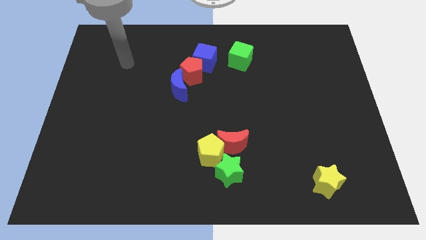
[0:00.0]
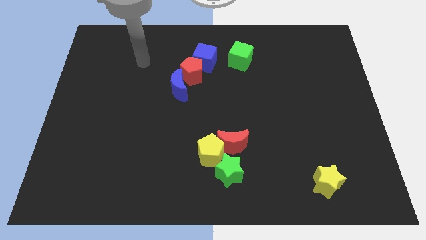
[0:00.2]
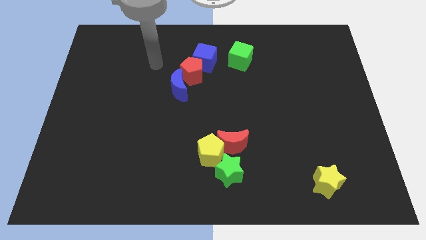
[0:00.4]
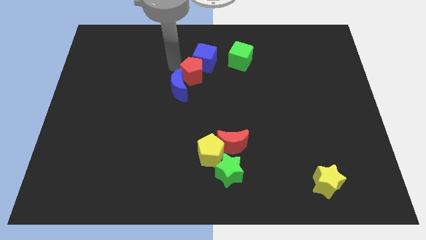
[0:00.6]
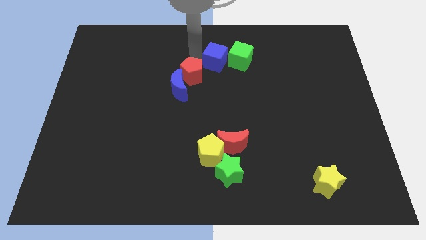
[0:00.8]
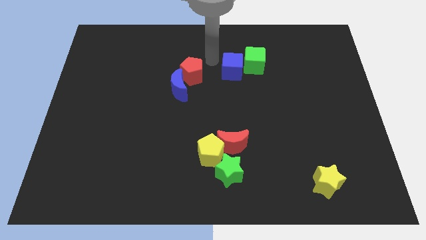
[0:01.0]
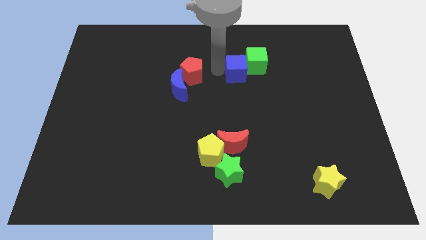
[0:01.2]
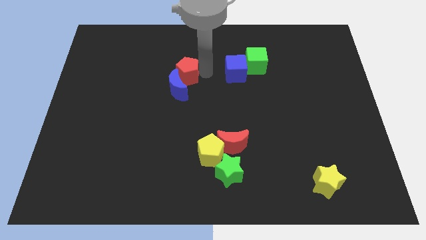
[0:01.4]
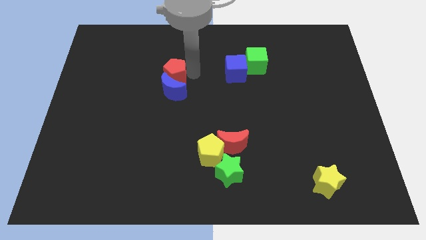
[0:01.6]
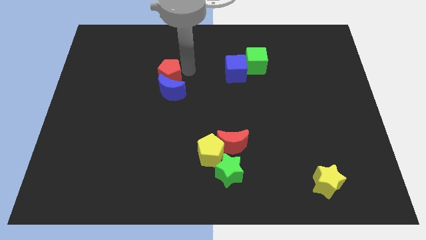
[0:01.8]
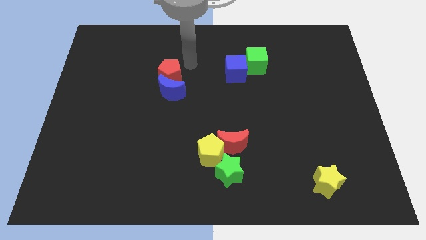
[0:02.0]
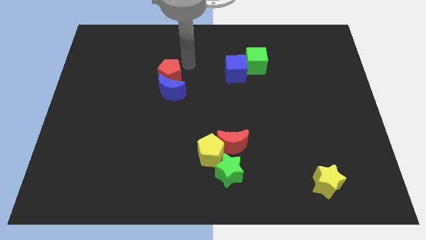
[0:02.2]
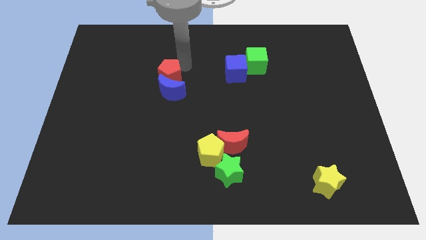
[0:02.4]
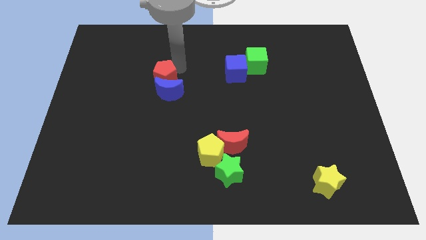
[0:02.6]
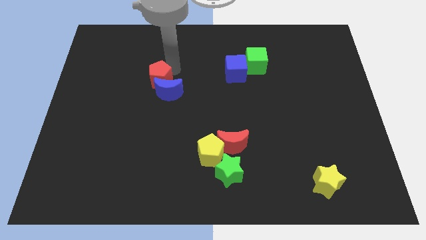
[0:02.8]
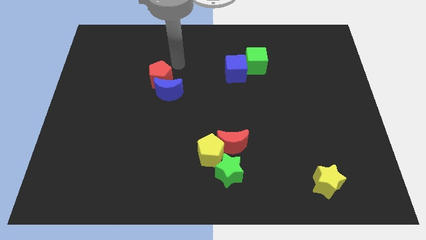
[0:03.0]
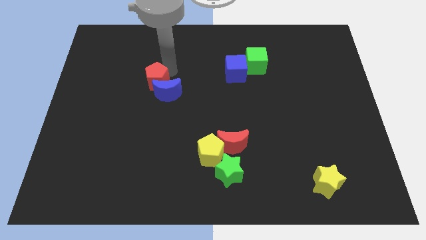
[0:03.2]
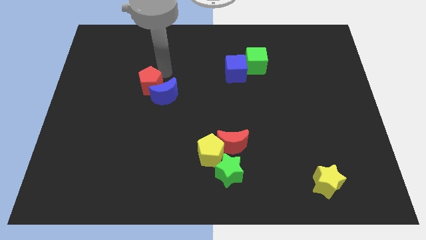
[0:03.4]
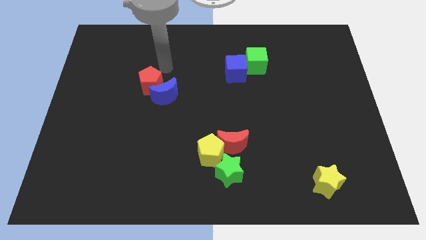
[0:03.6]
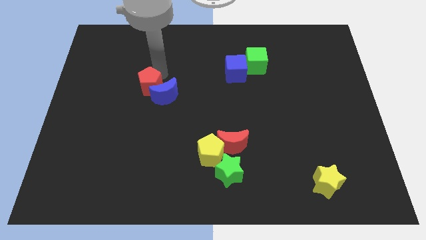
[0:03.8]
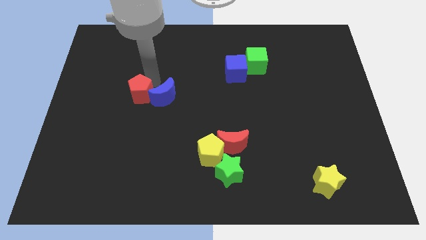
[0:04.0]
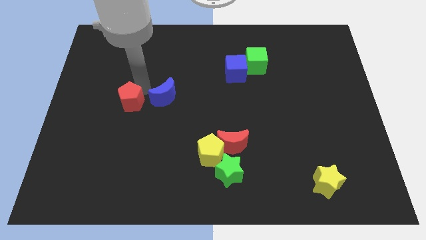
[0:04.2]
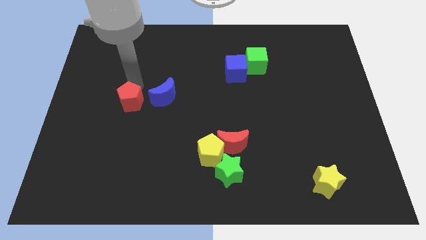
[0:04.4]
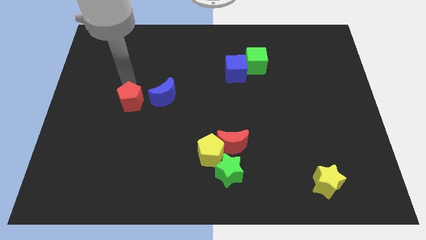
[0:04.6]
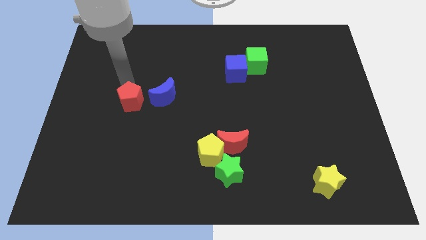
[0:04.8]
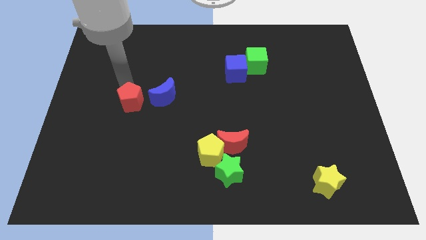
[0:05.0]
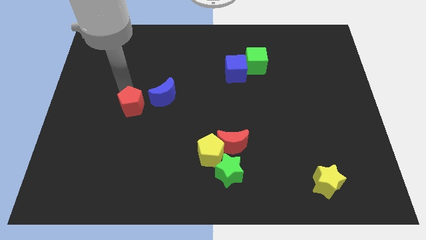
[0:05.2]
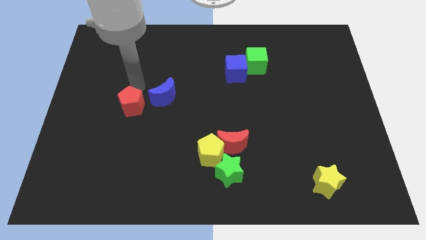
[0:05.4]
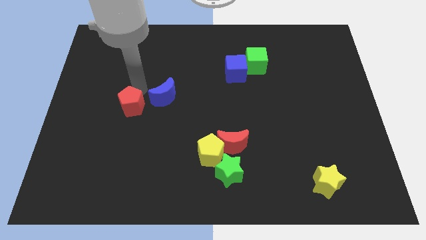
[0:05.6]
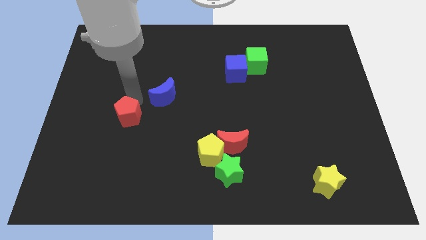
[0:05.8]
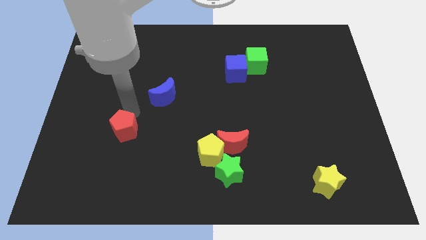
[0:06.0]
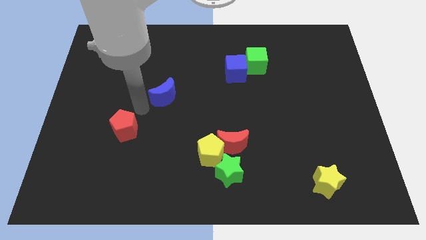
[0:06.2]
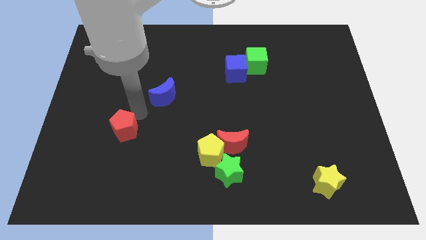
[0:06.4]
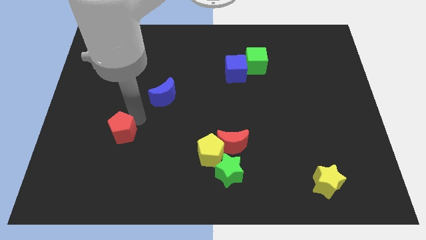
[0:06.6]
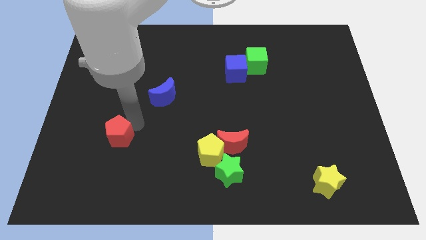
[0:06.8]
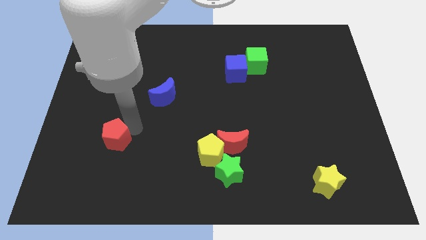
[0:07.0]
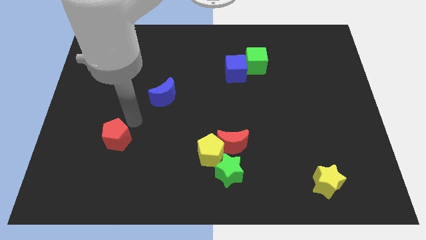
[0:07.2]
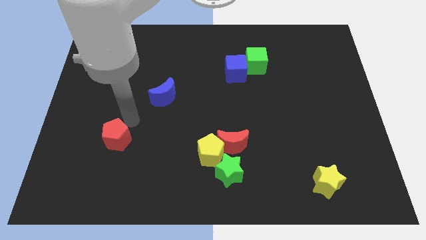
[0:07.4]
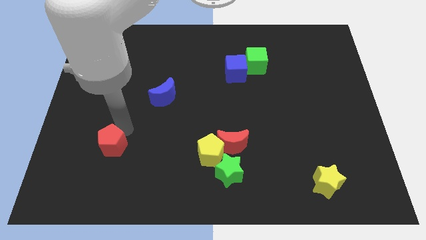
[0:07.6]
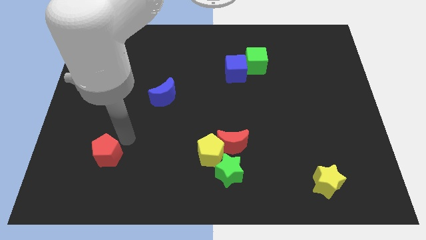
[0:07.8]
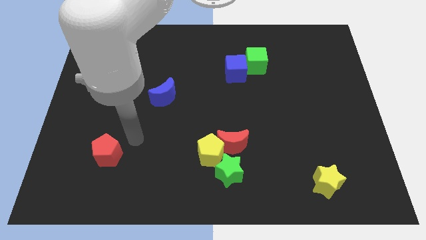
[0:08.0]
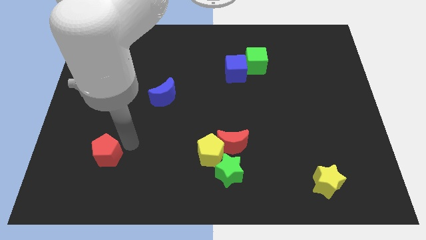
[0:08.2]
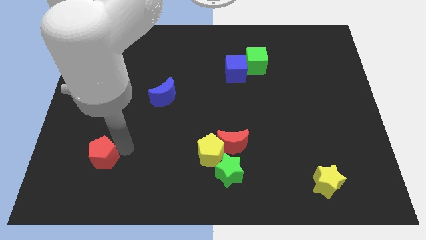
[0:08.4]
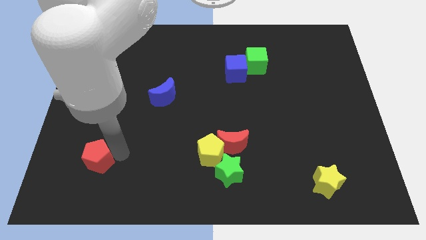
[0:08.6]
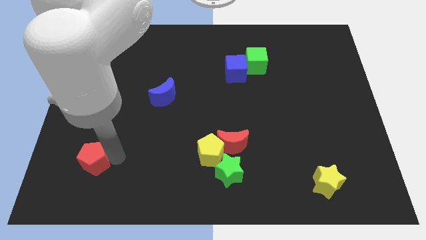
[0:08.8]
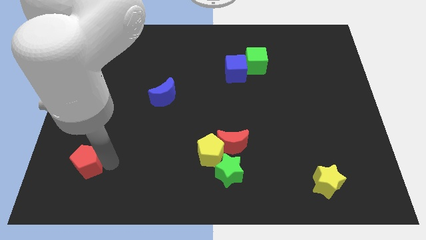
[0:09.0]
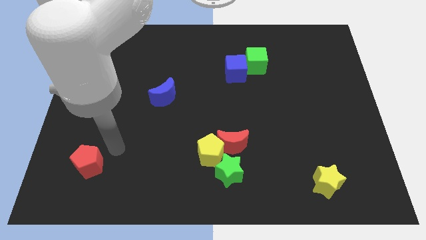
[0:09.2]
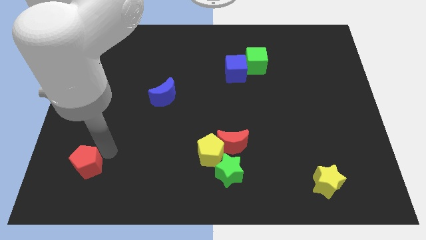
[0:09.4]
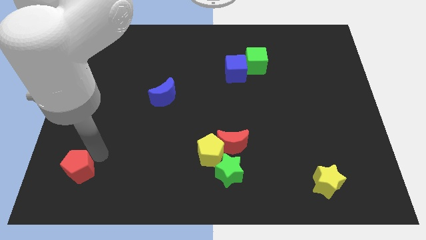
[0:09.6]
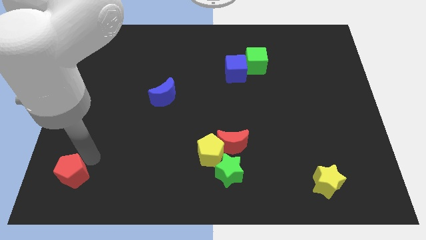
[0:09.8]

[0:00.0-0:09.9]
push the red pentagon to the bottom left of the board

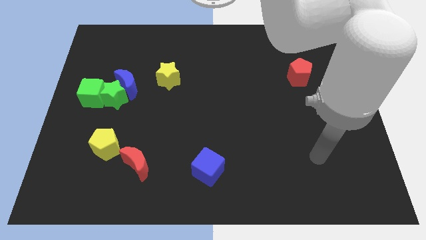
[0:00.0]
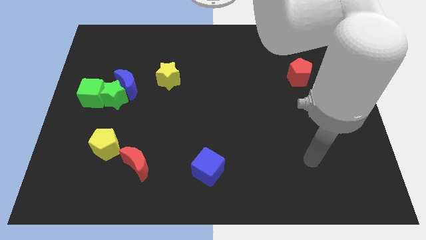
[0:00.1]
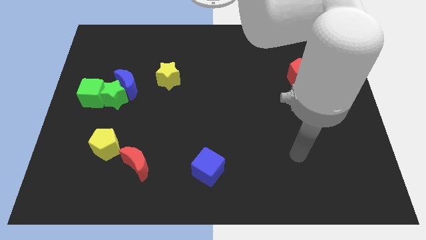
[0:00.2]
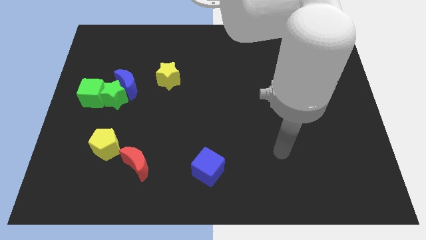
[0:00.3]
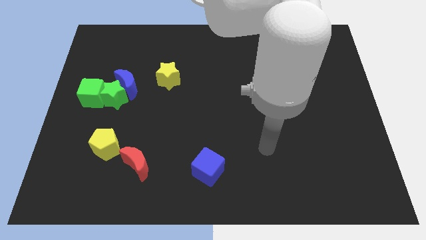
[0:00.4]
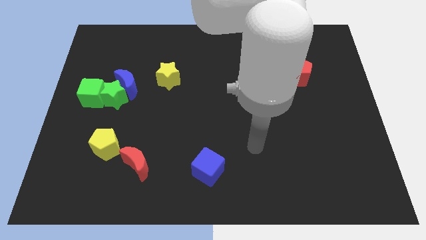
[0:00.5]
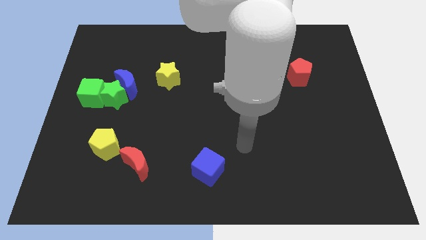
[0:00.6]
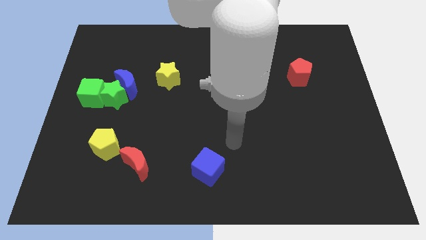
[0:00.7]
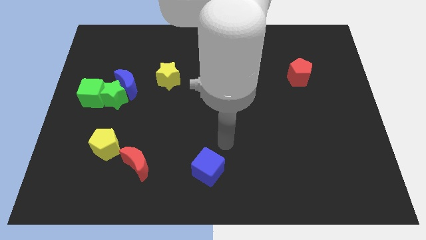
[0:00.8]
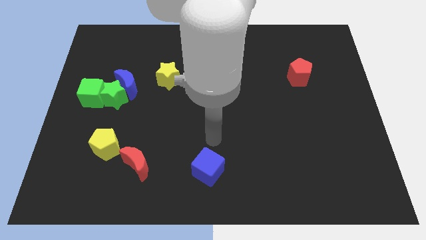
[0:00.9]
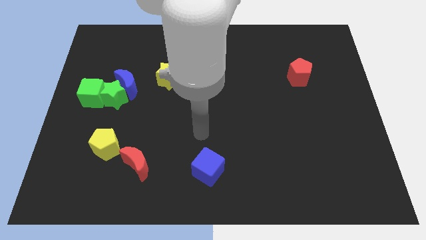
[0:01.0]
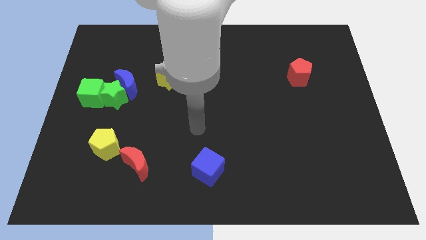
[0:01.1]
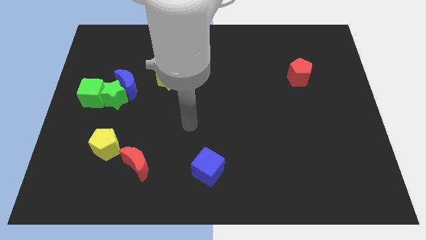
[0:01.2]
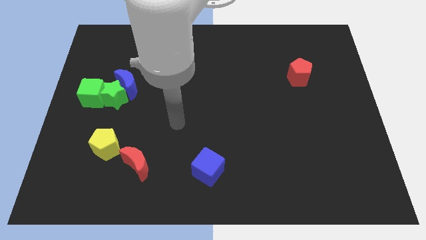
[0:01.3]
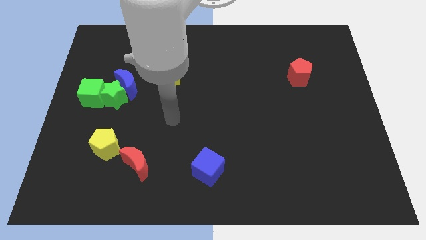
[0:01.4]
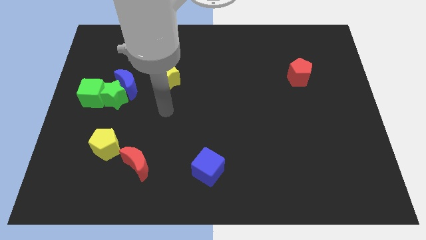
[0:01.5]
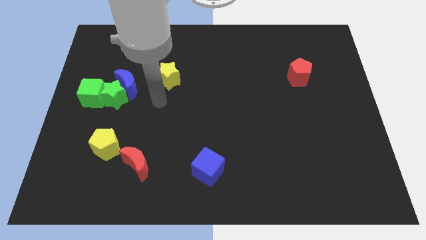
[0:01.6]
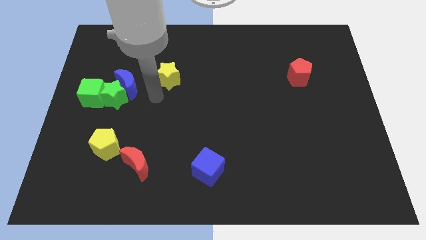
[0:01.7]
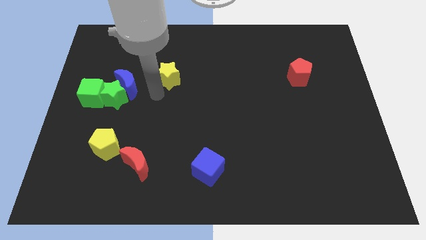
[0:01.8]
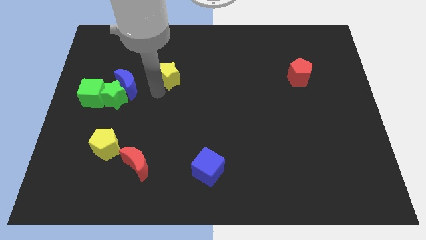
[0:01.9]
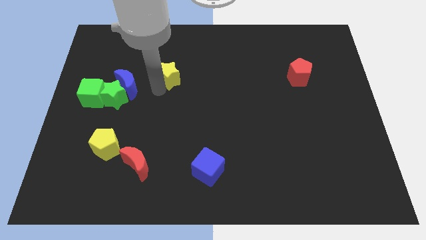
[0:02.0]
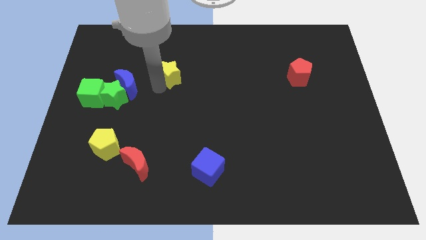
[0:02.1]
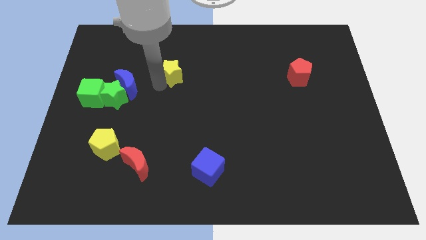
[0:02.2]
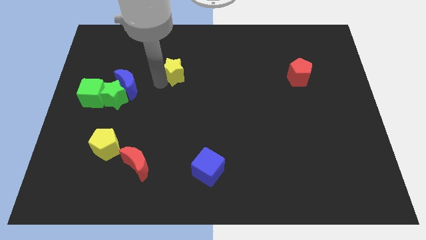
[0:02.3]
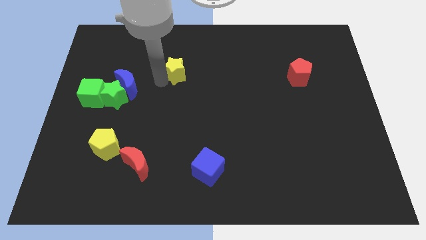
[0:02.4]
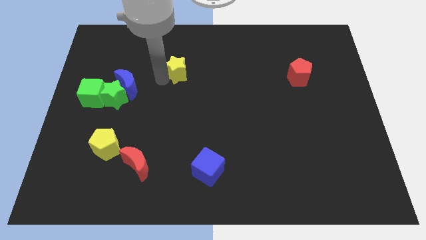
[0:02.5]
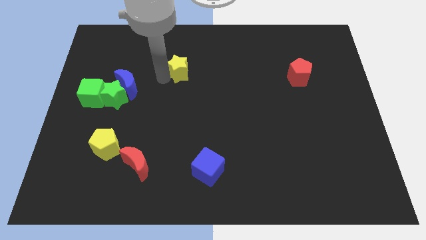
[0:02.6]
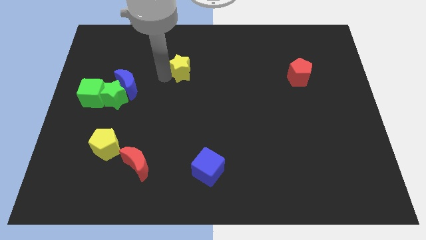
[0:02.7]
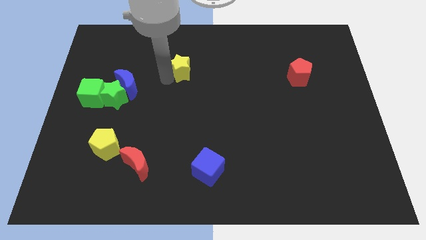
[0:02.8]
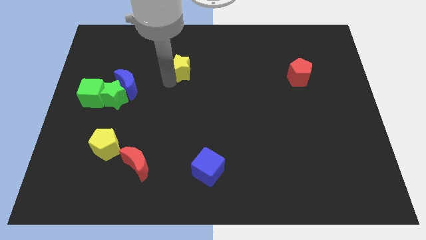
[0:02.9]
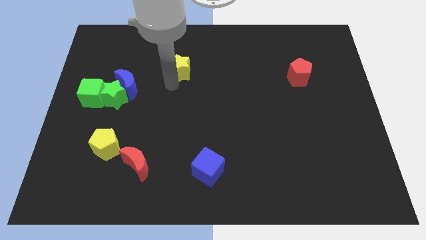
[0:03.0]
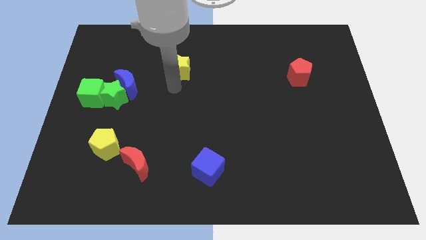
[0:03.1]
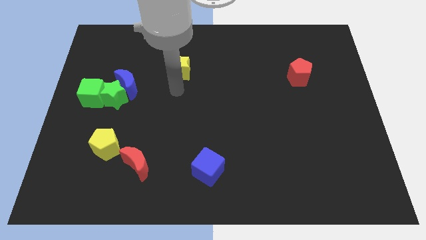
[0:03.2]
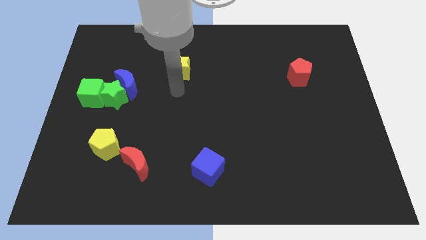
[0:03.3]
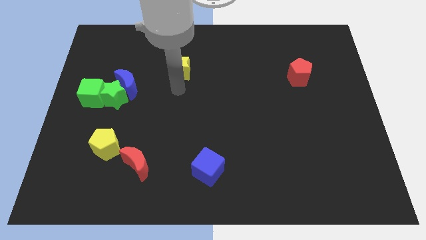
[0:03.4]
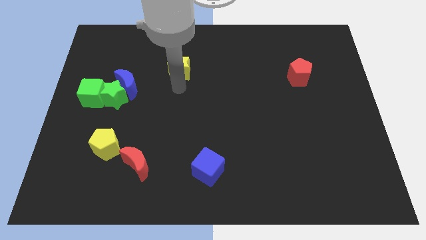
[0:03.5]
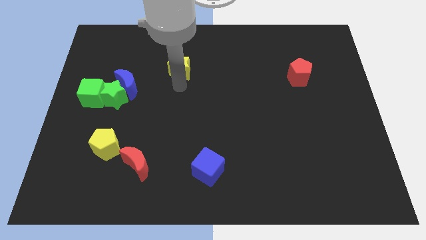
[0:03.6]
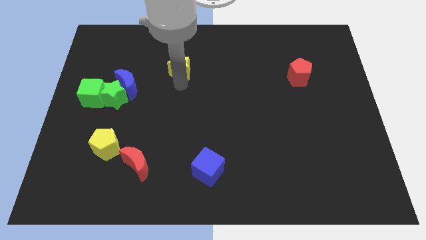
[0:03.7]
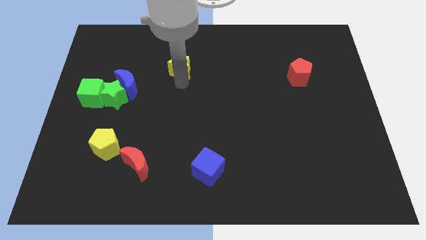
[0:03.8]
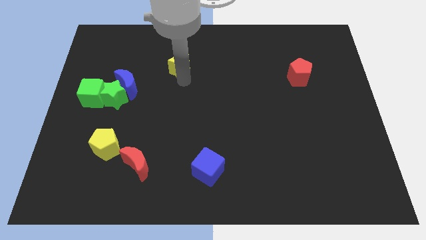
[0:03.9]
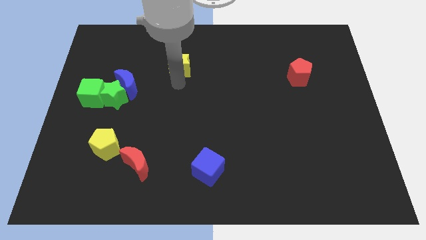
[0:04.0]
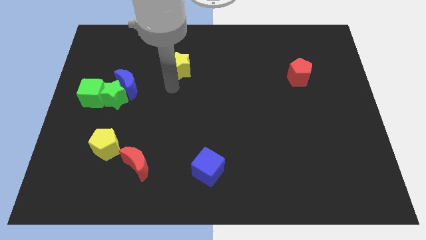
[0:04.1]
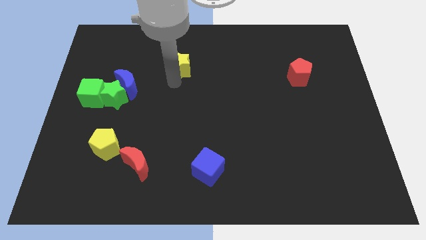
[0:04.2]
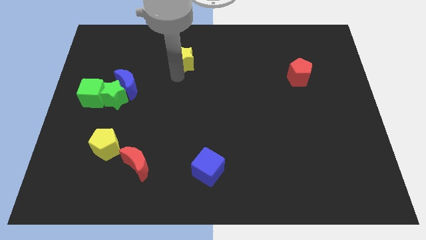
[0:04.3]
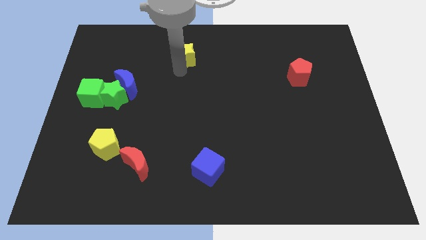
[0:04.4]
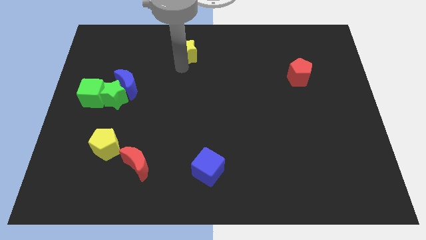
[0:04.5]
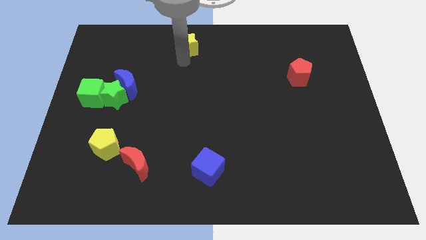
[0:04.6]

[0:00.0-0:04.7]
move the yellow star to the top side
